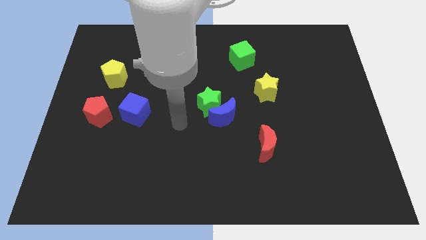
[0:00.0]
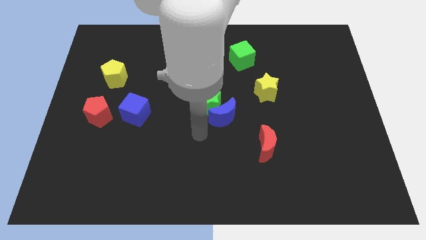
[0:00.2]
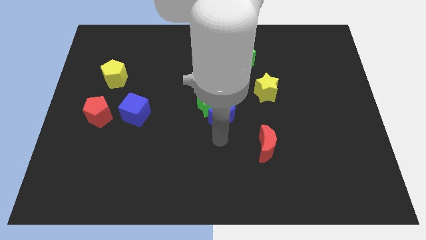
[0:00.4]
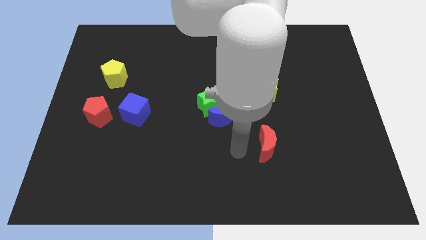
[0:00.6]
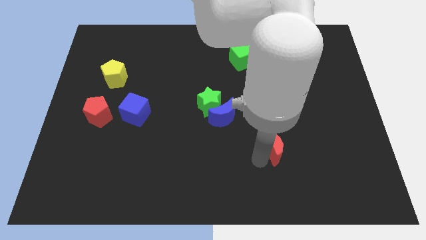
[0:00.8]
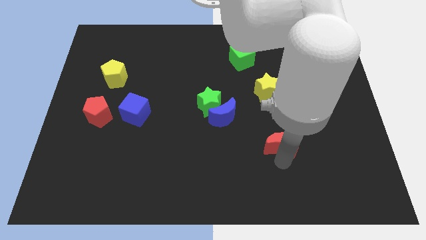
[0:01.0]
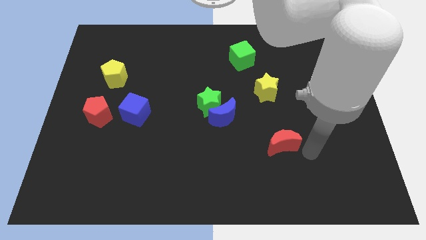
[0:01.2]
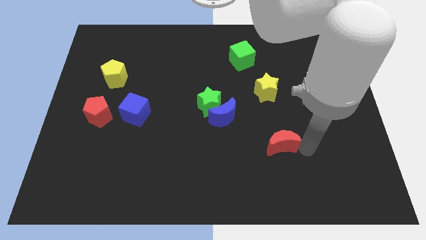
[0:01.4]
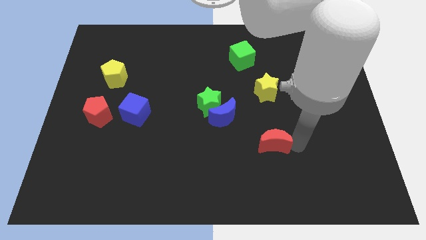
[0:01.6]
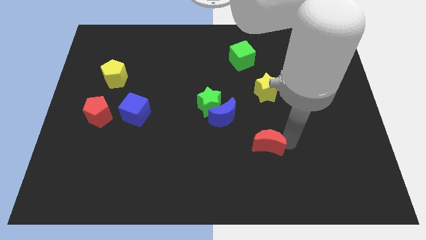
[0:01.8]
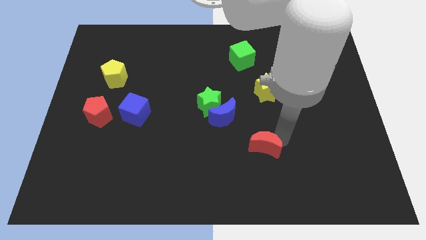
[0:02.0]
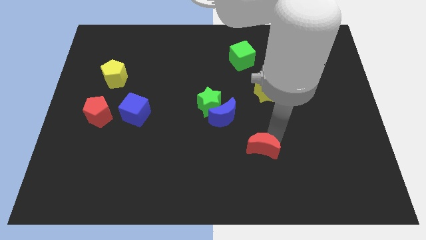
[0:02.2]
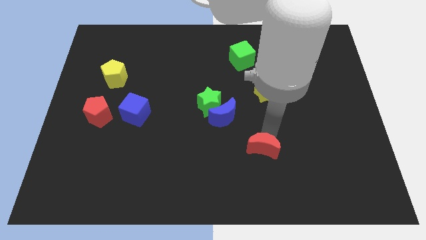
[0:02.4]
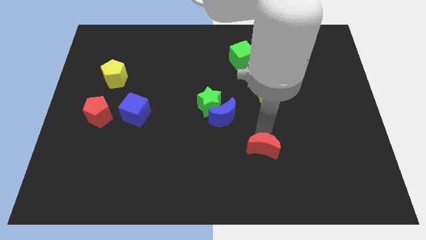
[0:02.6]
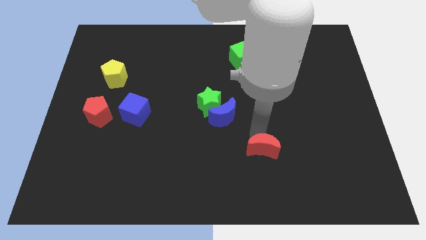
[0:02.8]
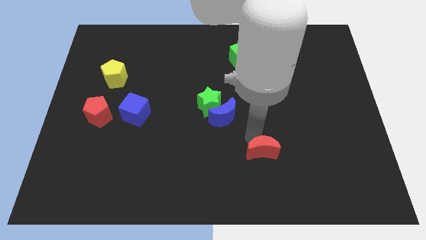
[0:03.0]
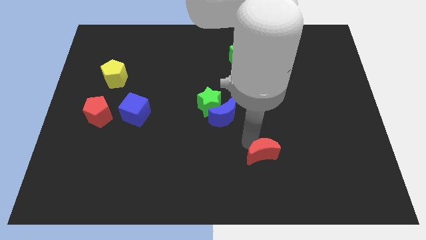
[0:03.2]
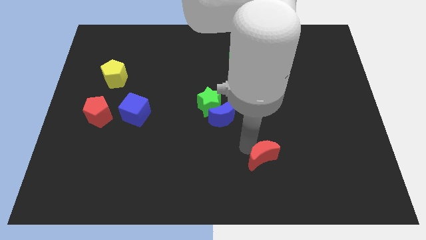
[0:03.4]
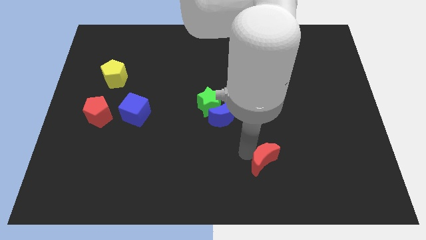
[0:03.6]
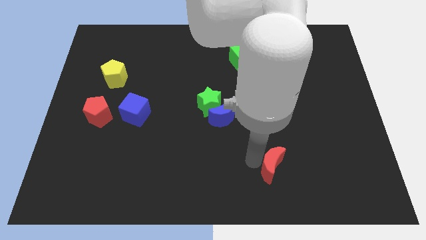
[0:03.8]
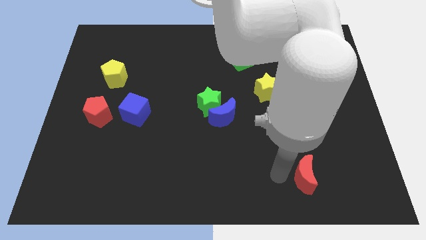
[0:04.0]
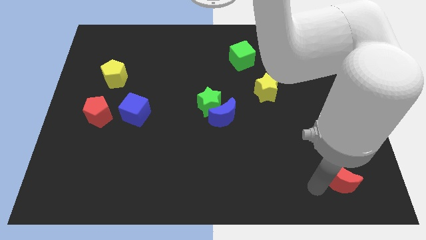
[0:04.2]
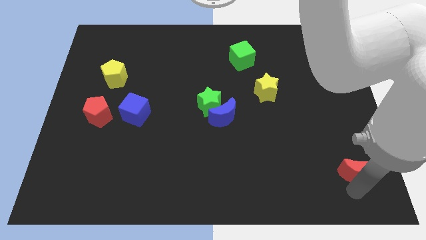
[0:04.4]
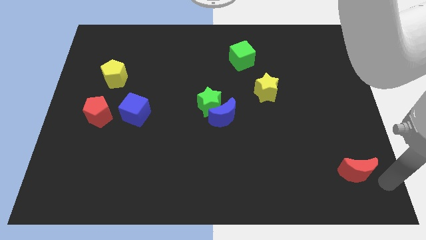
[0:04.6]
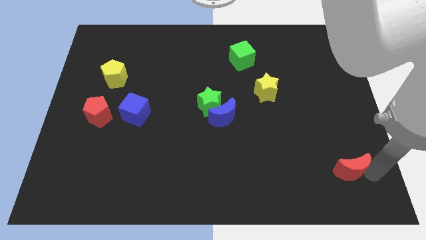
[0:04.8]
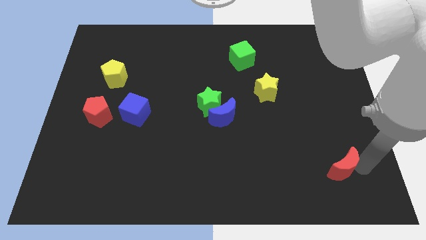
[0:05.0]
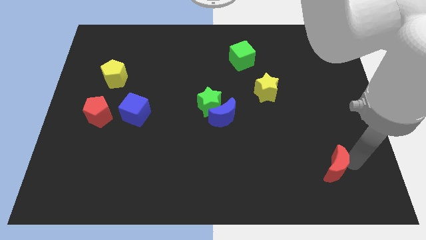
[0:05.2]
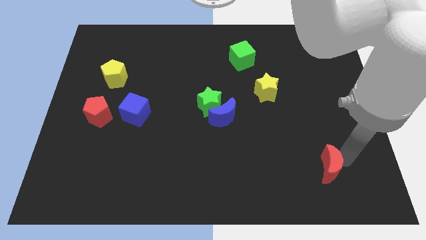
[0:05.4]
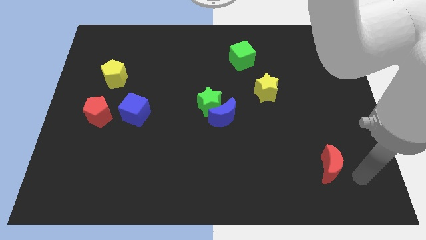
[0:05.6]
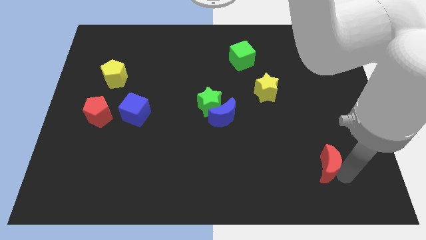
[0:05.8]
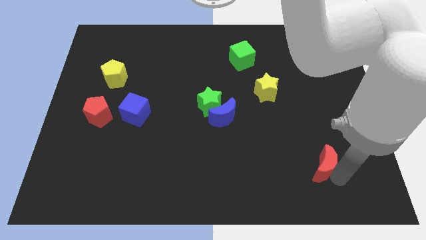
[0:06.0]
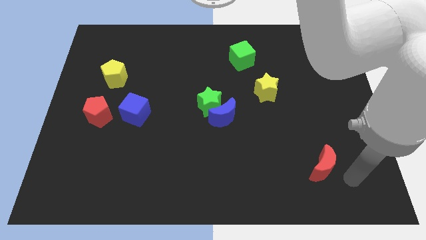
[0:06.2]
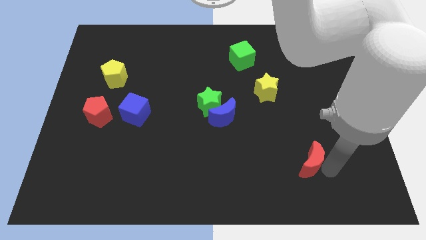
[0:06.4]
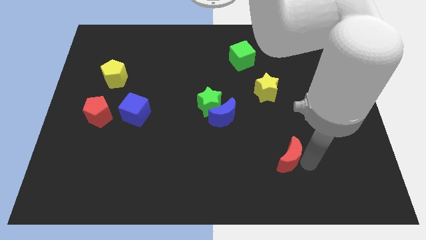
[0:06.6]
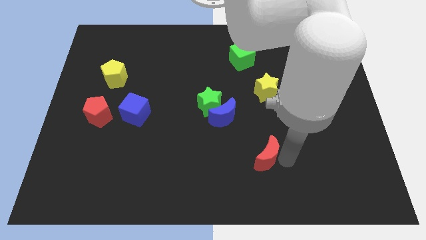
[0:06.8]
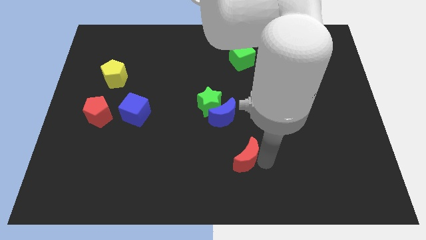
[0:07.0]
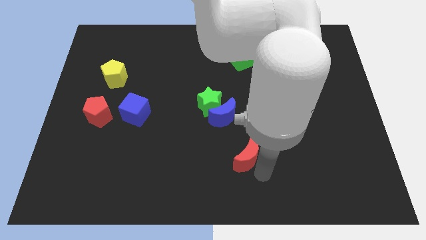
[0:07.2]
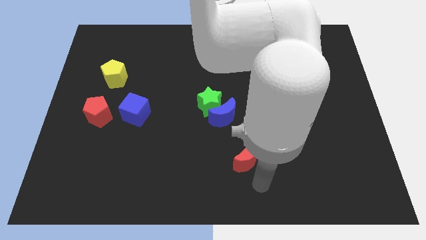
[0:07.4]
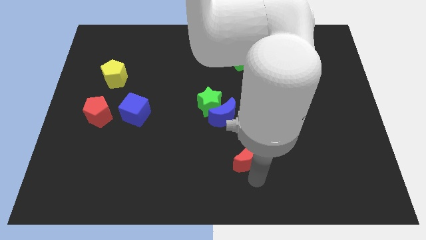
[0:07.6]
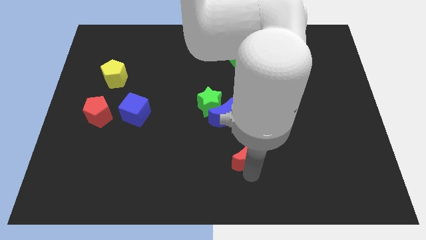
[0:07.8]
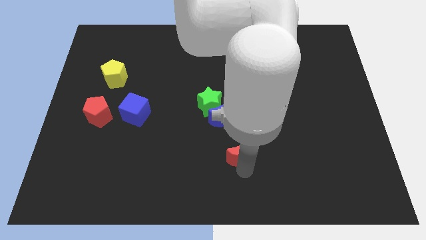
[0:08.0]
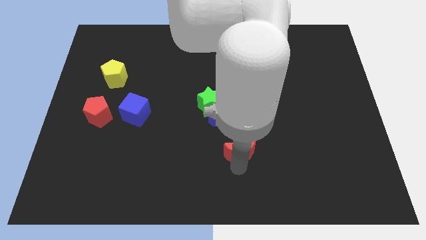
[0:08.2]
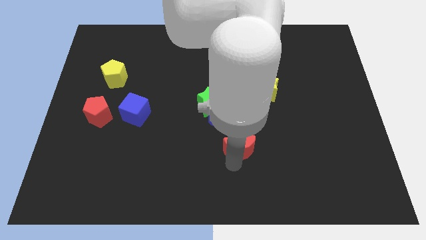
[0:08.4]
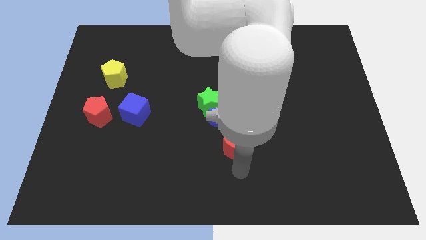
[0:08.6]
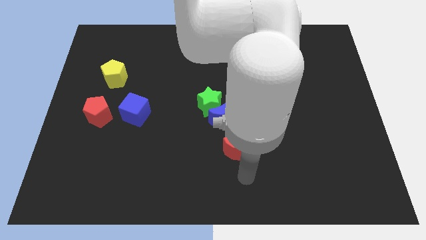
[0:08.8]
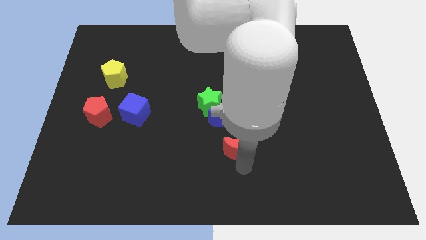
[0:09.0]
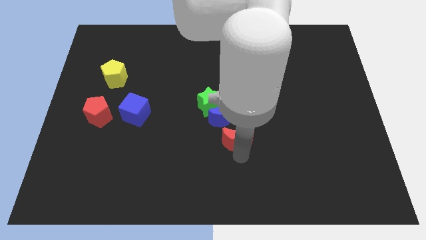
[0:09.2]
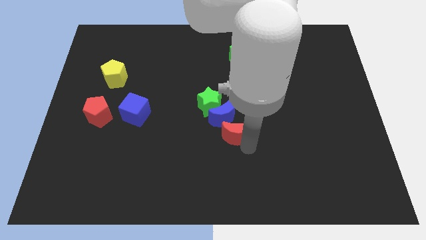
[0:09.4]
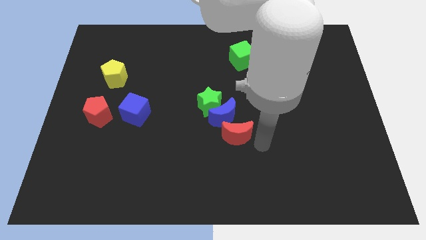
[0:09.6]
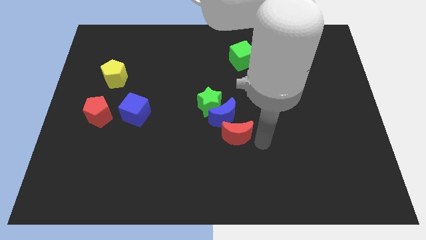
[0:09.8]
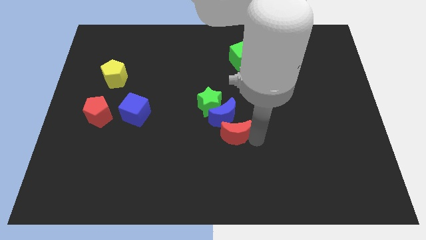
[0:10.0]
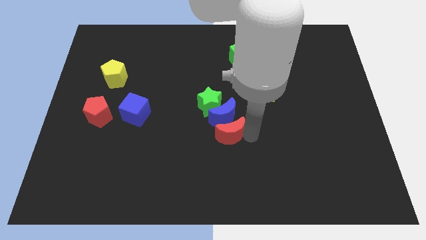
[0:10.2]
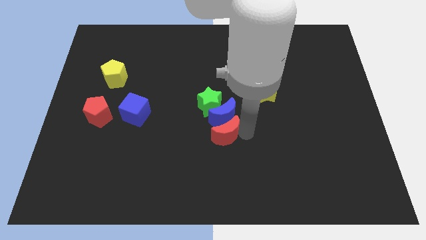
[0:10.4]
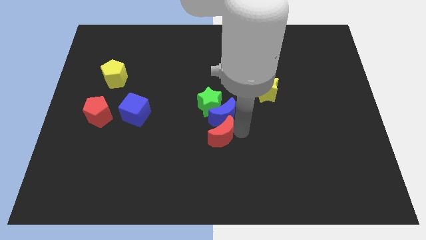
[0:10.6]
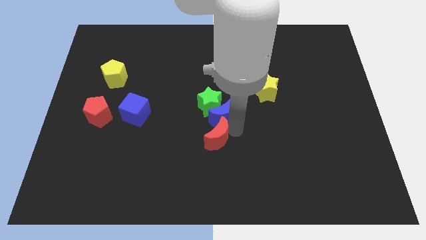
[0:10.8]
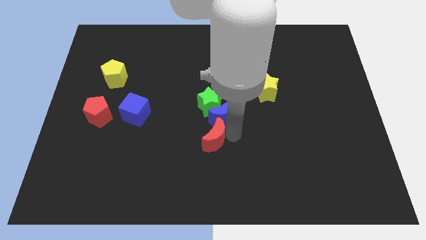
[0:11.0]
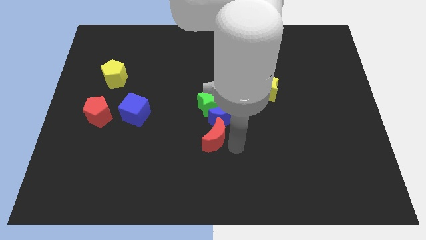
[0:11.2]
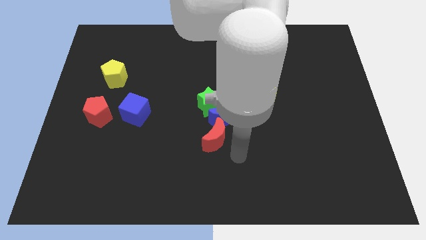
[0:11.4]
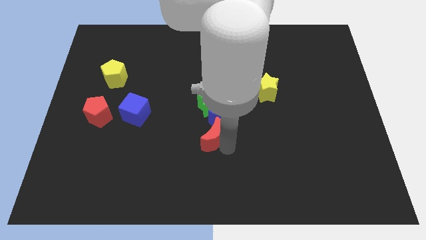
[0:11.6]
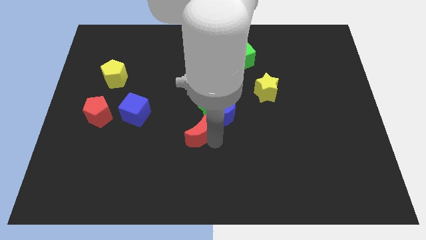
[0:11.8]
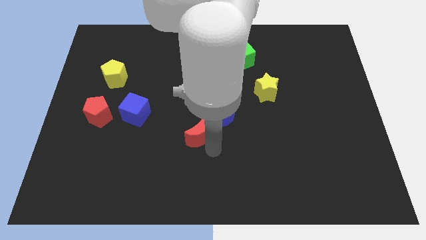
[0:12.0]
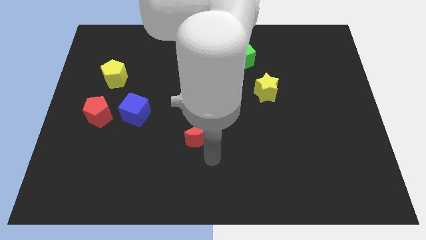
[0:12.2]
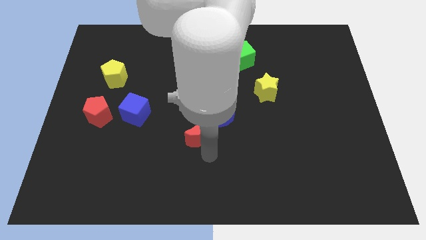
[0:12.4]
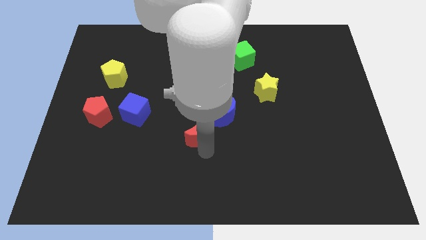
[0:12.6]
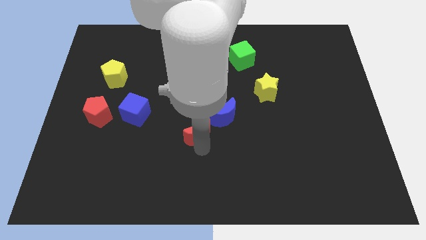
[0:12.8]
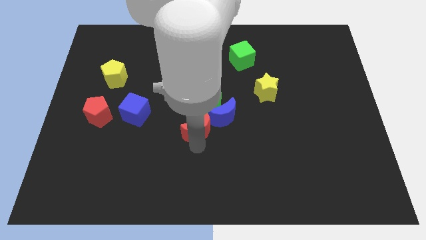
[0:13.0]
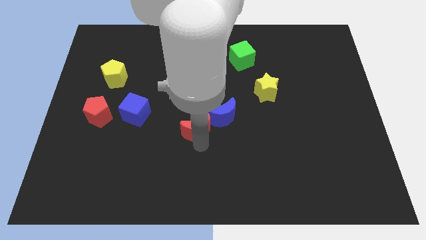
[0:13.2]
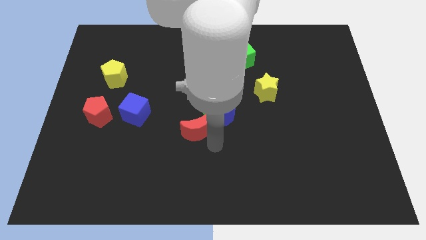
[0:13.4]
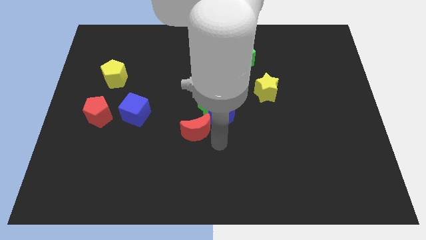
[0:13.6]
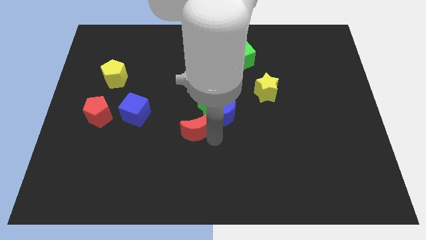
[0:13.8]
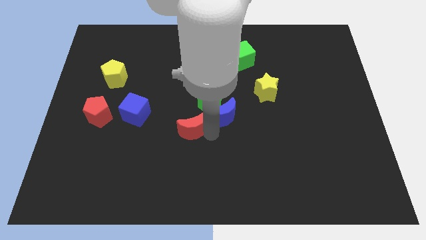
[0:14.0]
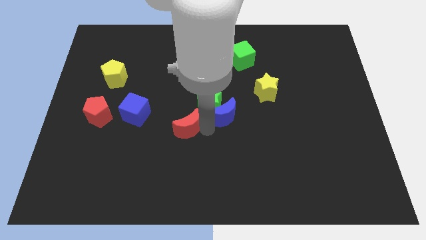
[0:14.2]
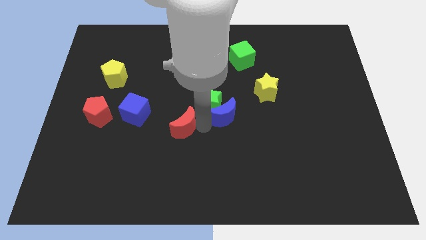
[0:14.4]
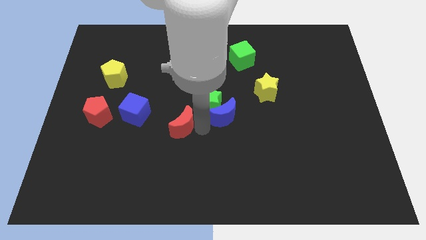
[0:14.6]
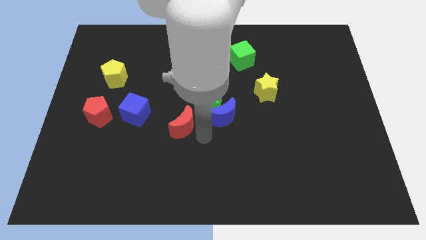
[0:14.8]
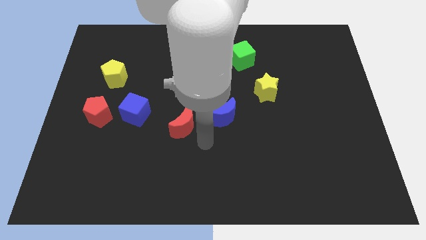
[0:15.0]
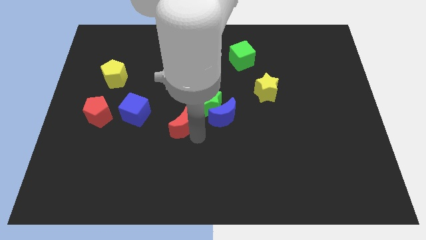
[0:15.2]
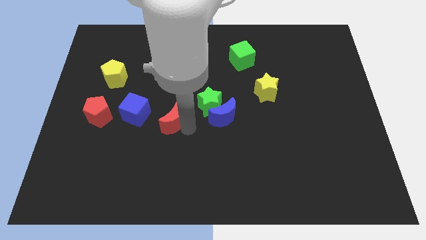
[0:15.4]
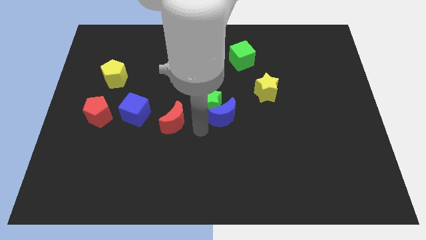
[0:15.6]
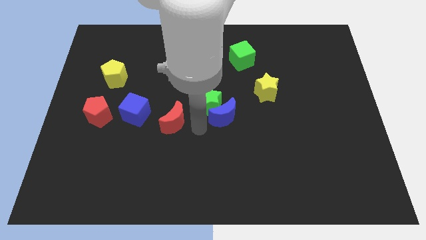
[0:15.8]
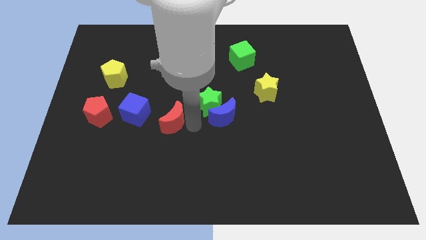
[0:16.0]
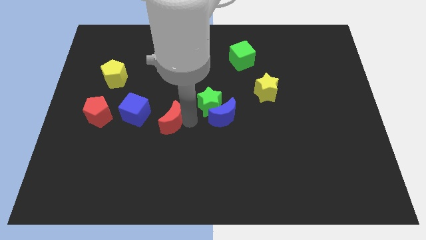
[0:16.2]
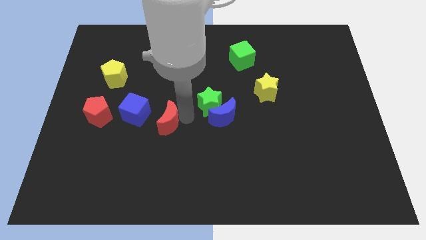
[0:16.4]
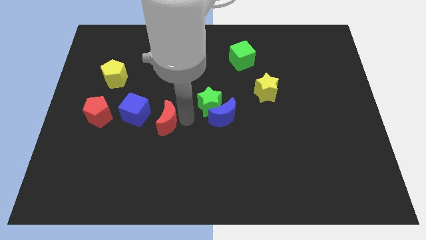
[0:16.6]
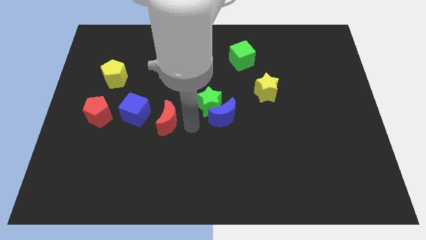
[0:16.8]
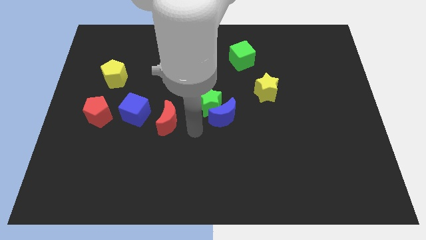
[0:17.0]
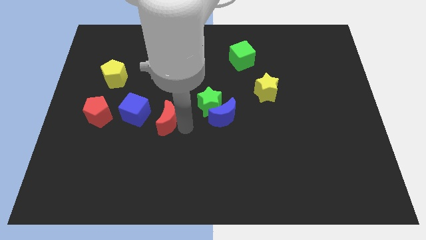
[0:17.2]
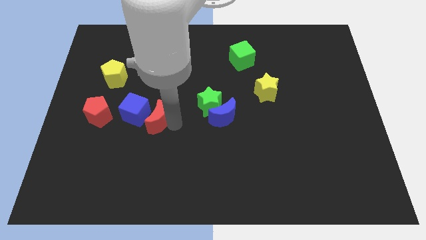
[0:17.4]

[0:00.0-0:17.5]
put the red moon to the blue cube
